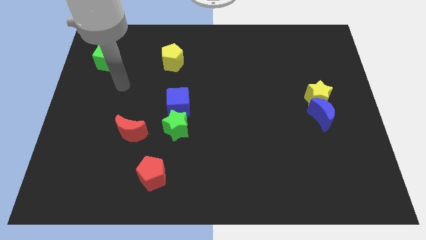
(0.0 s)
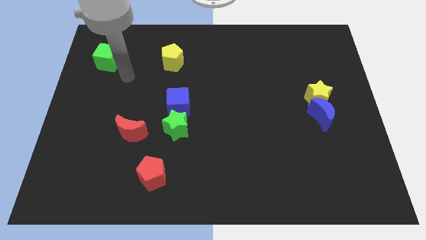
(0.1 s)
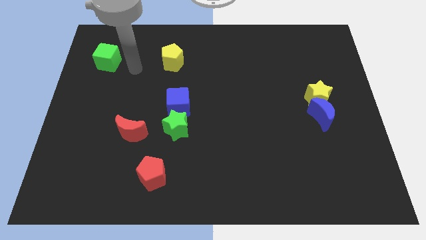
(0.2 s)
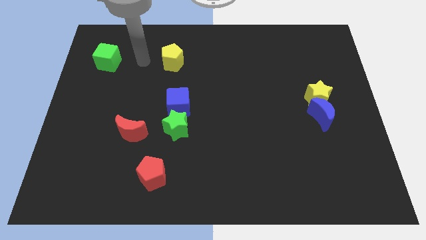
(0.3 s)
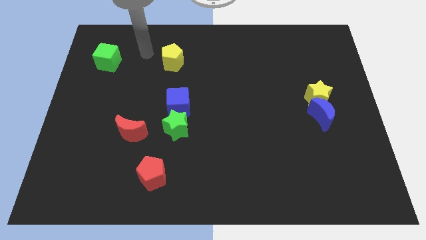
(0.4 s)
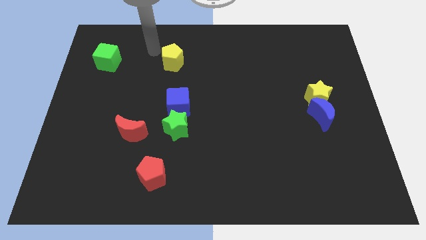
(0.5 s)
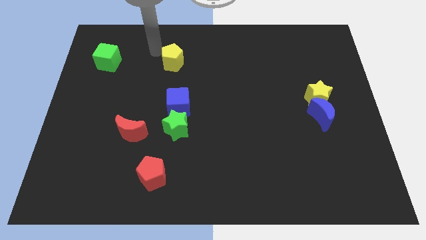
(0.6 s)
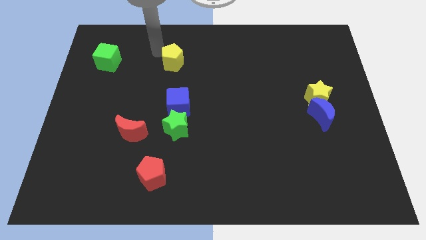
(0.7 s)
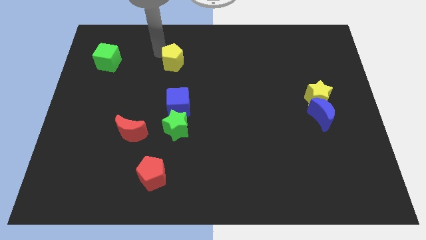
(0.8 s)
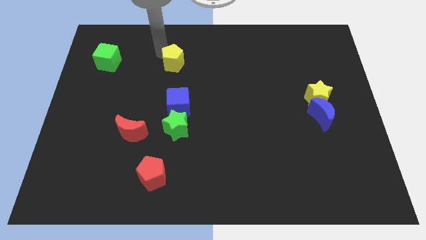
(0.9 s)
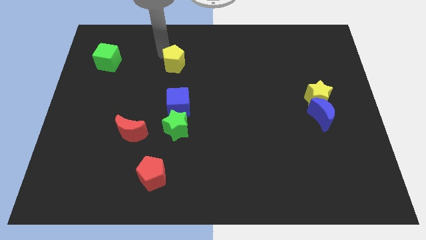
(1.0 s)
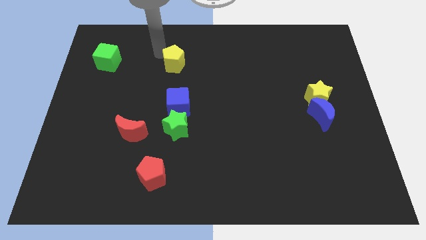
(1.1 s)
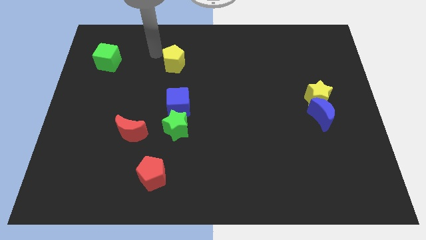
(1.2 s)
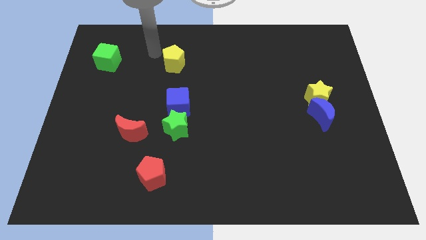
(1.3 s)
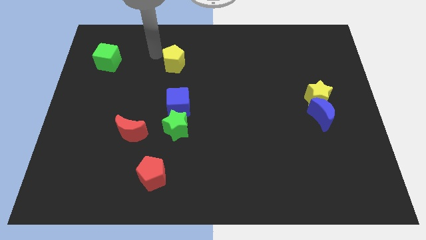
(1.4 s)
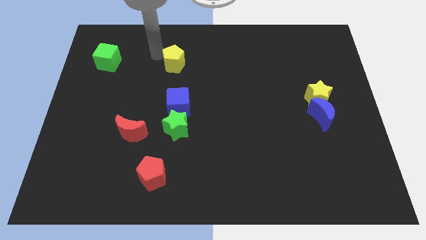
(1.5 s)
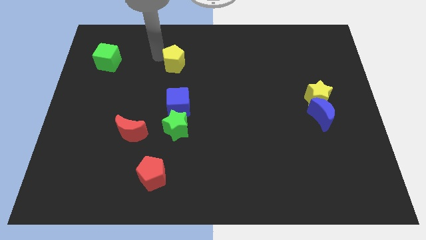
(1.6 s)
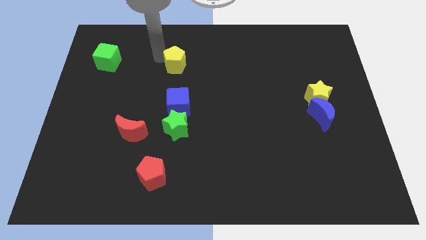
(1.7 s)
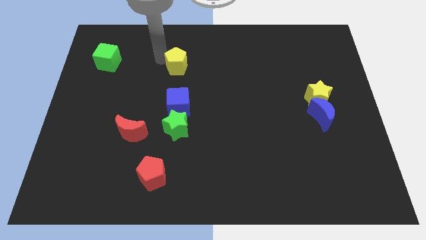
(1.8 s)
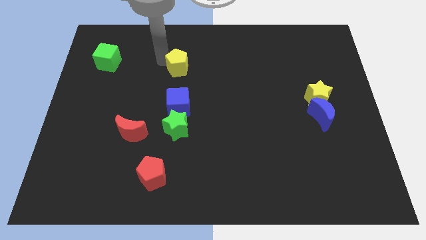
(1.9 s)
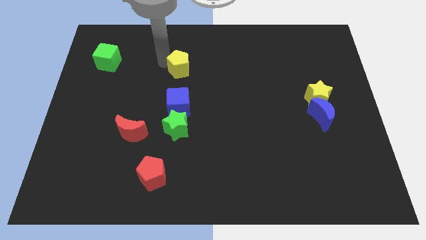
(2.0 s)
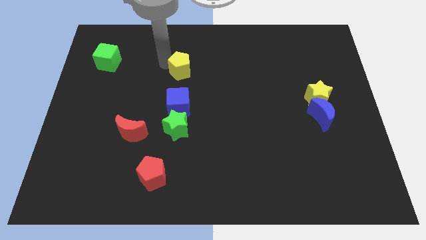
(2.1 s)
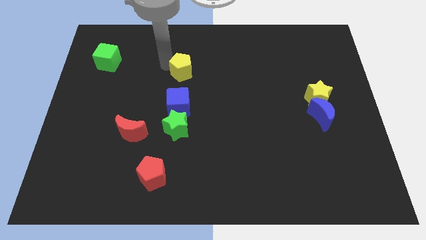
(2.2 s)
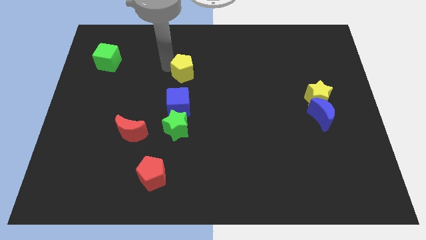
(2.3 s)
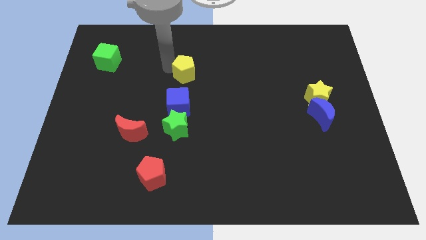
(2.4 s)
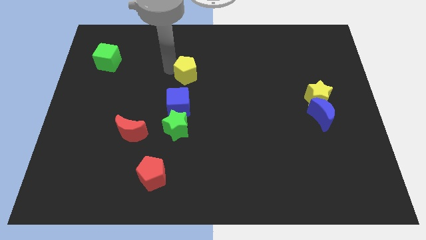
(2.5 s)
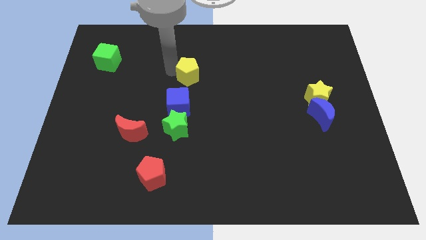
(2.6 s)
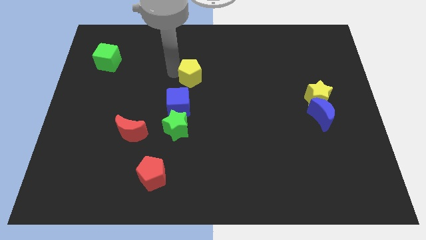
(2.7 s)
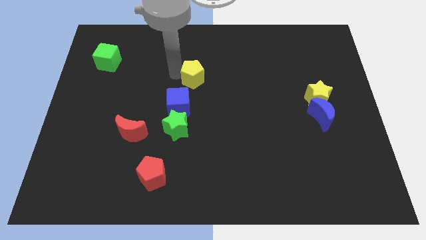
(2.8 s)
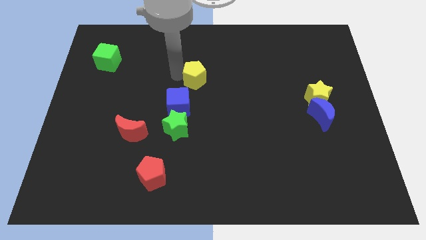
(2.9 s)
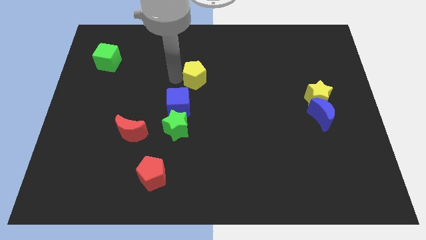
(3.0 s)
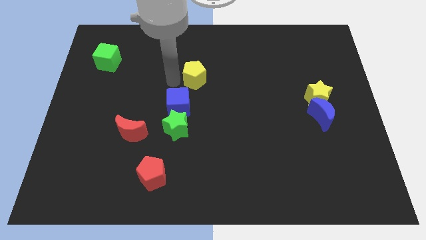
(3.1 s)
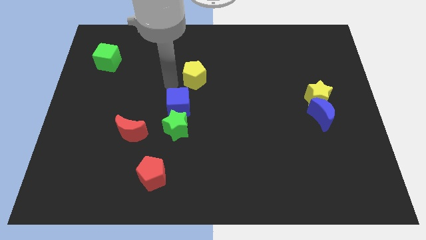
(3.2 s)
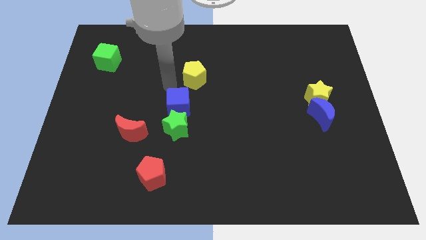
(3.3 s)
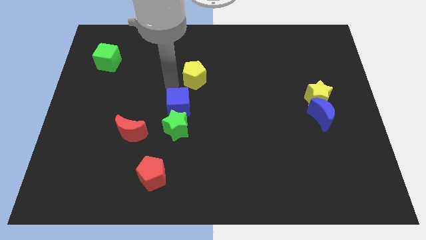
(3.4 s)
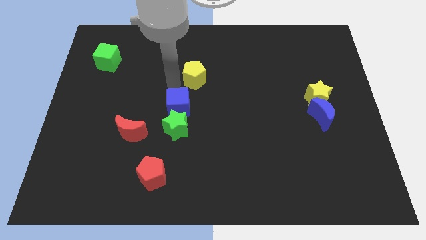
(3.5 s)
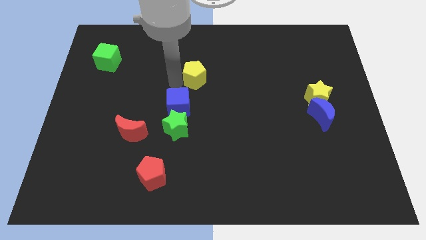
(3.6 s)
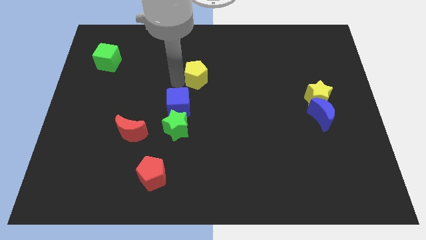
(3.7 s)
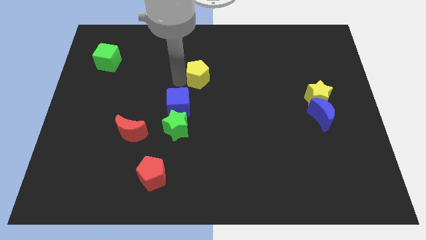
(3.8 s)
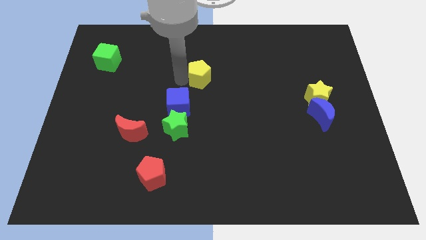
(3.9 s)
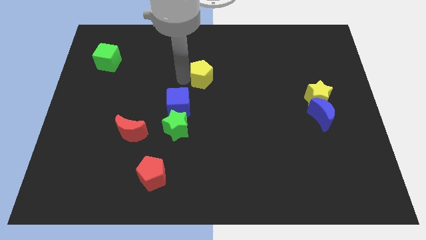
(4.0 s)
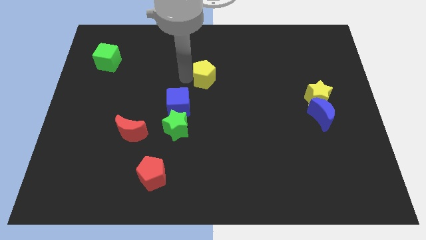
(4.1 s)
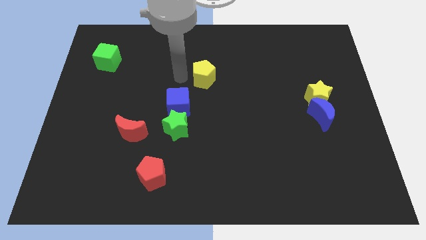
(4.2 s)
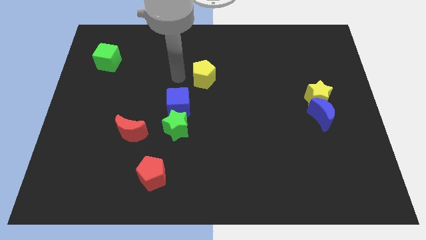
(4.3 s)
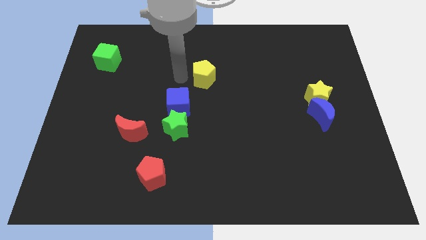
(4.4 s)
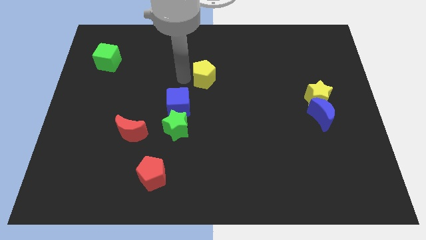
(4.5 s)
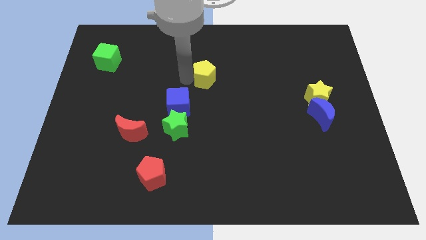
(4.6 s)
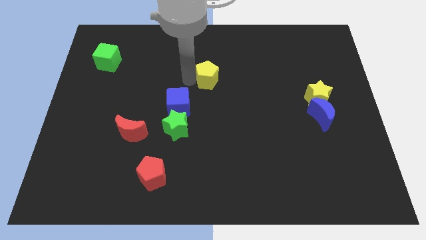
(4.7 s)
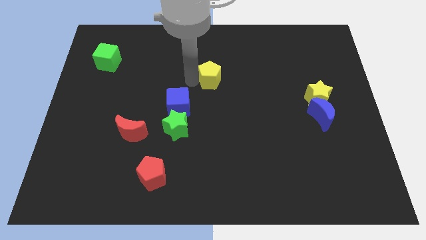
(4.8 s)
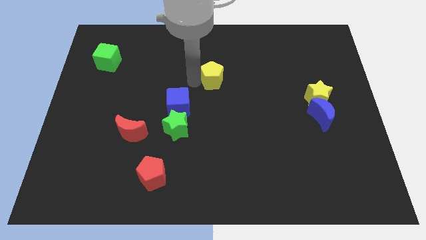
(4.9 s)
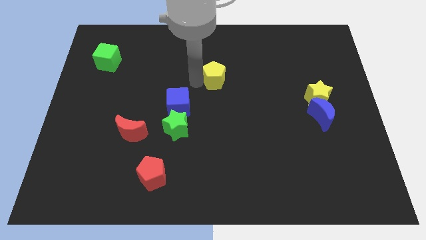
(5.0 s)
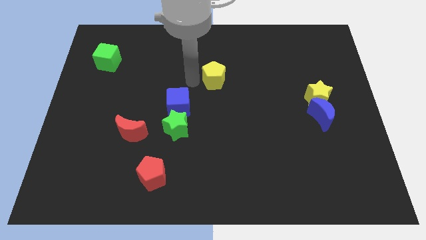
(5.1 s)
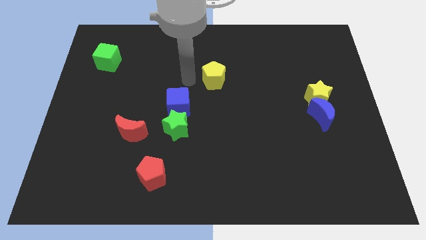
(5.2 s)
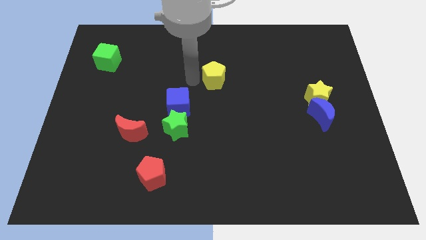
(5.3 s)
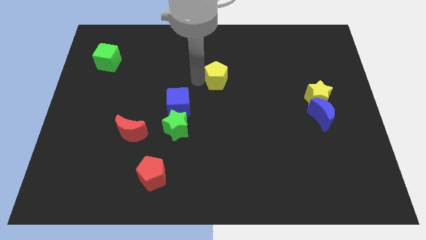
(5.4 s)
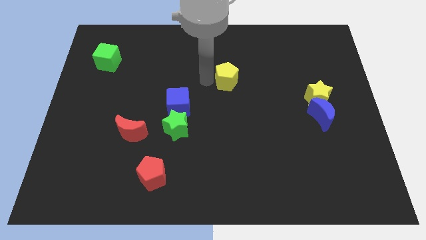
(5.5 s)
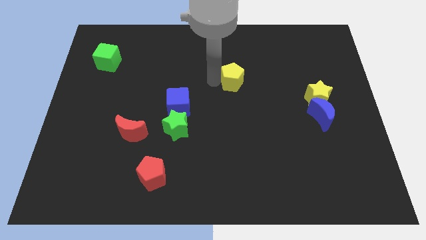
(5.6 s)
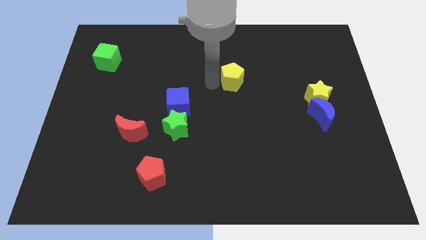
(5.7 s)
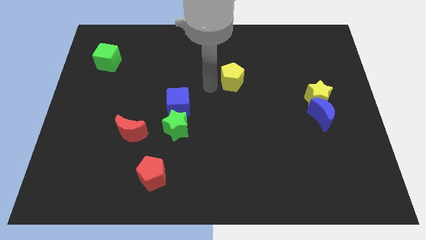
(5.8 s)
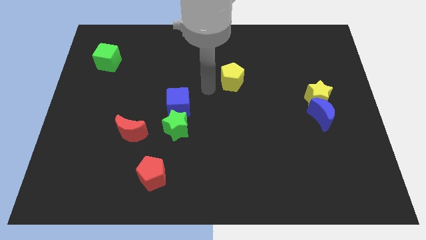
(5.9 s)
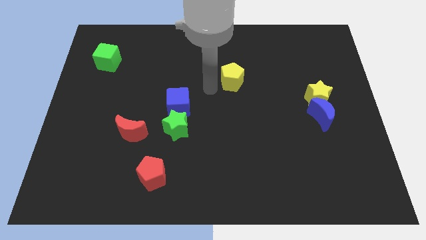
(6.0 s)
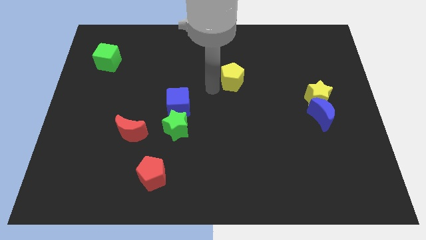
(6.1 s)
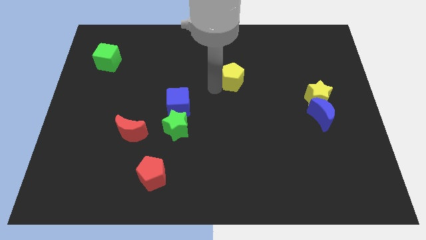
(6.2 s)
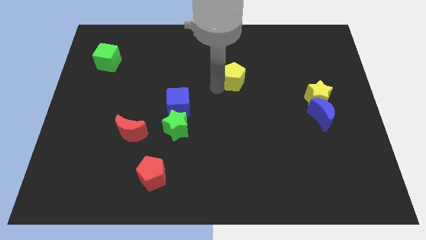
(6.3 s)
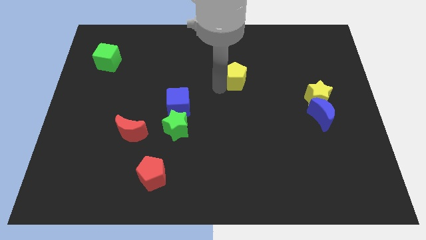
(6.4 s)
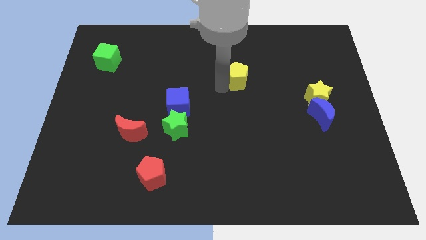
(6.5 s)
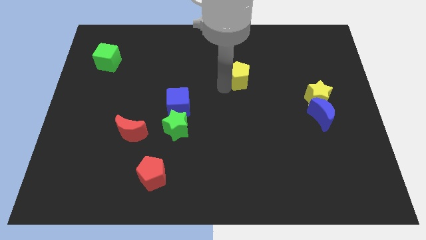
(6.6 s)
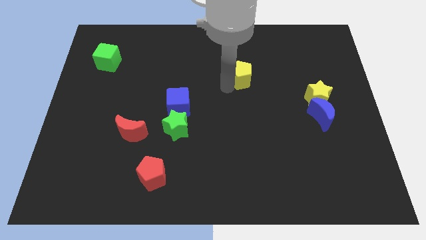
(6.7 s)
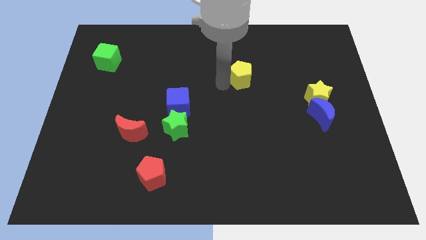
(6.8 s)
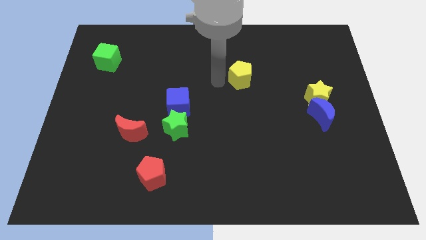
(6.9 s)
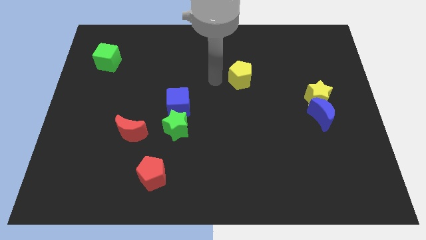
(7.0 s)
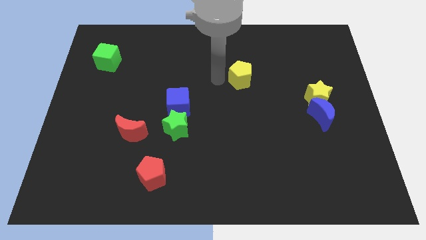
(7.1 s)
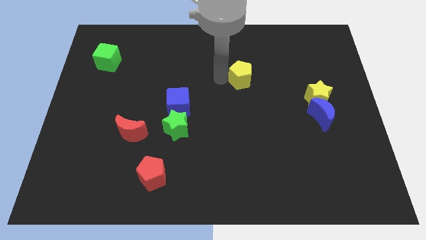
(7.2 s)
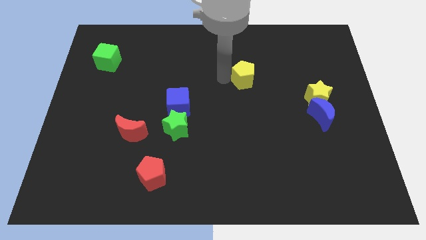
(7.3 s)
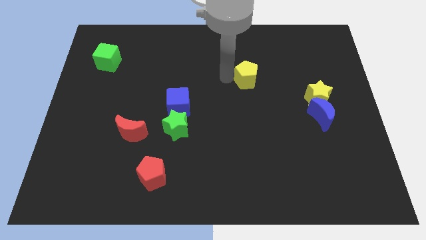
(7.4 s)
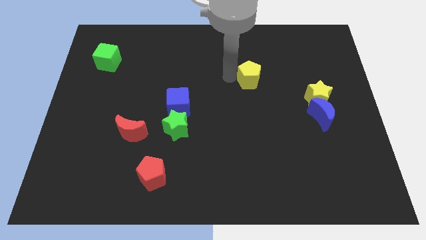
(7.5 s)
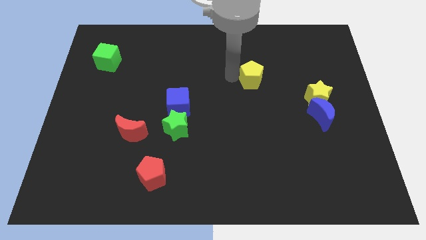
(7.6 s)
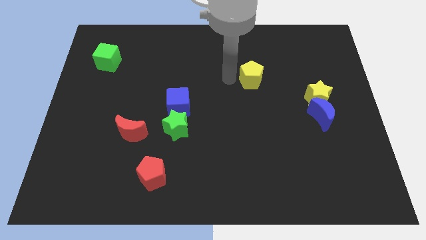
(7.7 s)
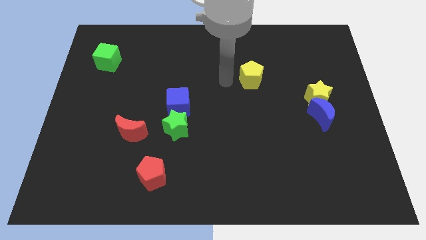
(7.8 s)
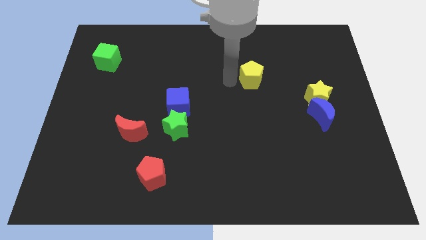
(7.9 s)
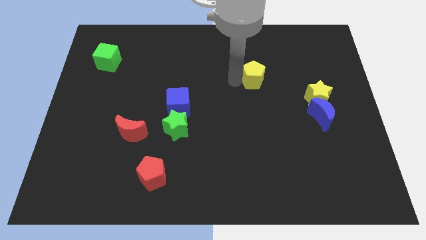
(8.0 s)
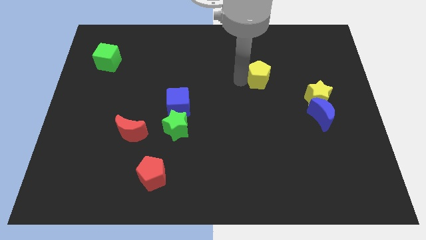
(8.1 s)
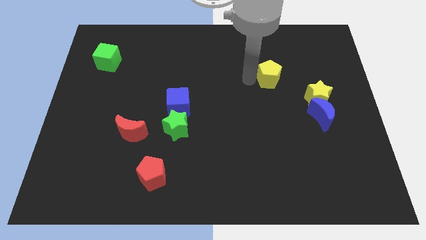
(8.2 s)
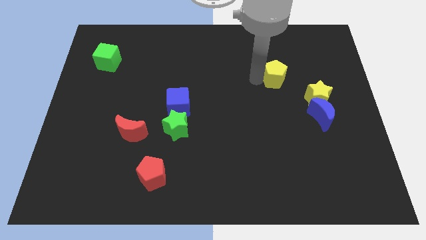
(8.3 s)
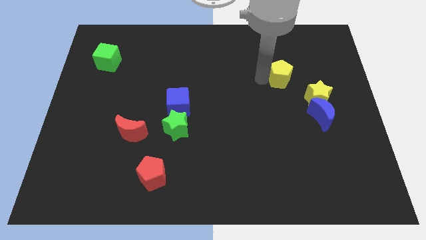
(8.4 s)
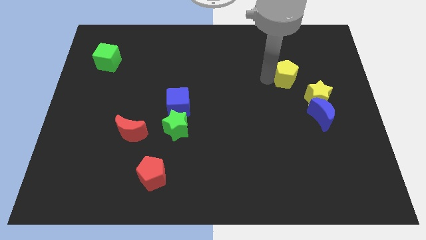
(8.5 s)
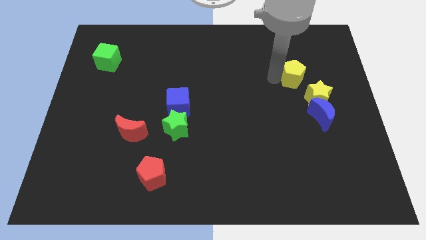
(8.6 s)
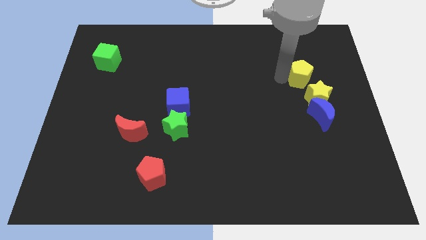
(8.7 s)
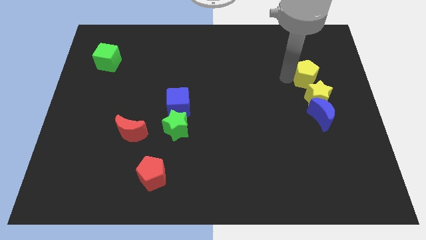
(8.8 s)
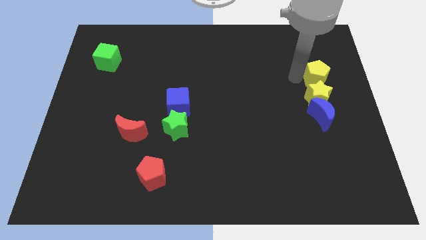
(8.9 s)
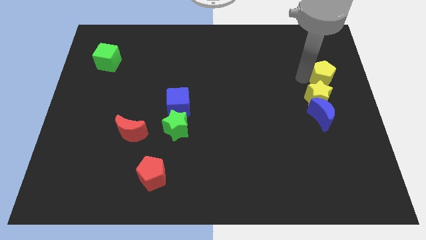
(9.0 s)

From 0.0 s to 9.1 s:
slide the yellow pentagon to the right side
